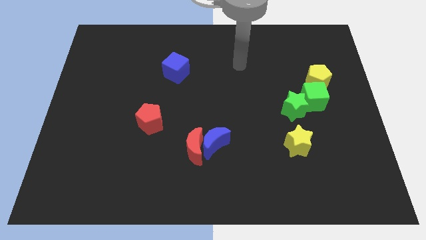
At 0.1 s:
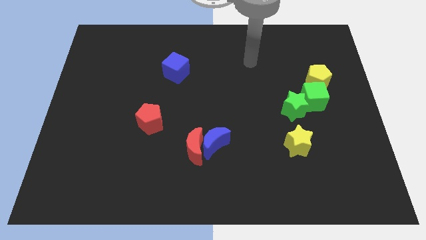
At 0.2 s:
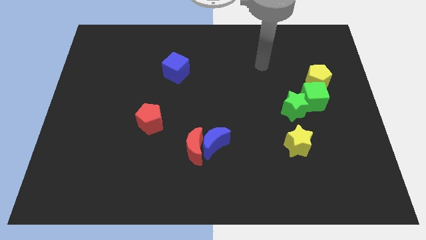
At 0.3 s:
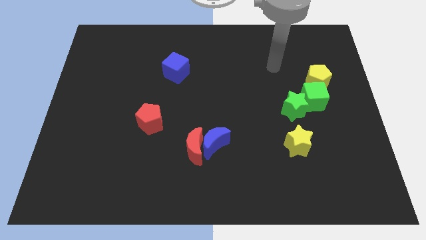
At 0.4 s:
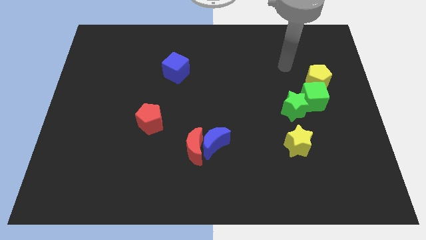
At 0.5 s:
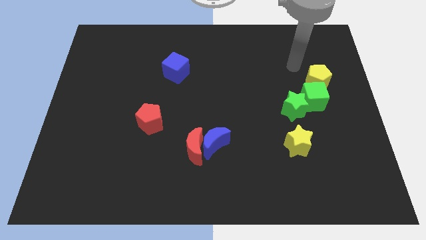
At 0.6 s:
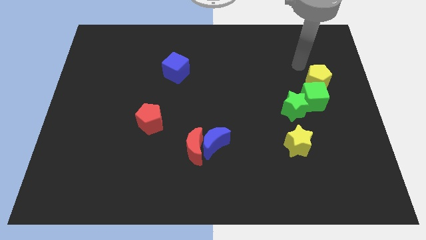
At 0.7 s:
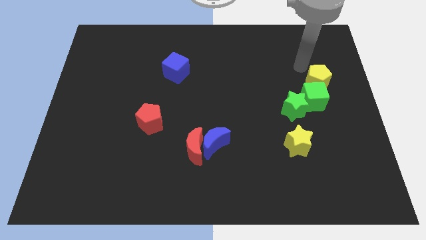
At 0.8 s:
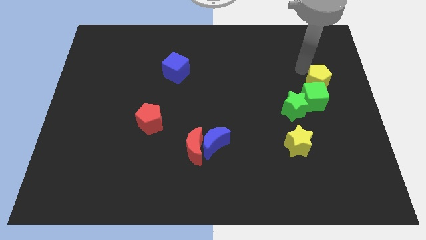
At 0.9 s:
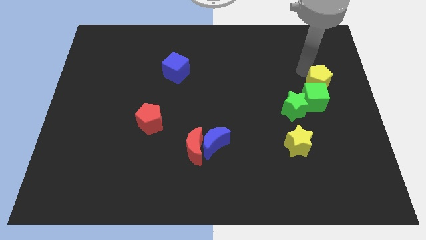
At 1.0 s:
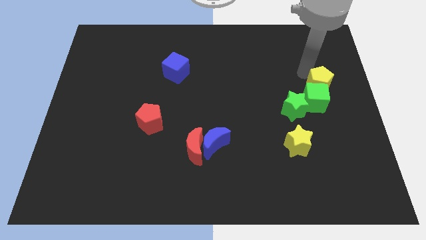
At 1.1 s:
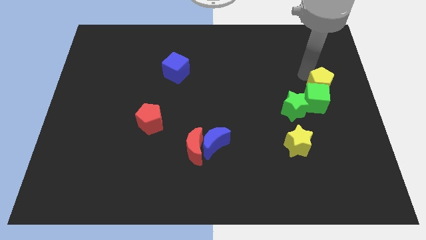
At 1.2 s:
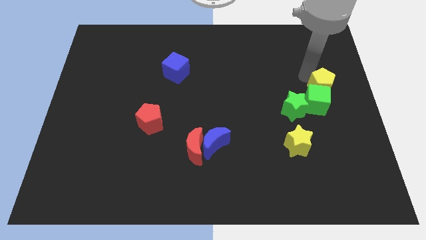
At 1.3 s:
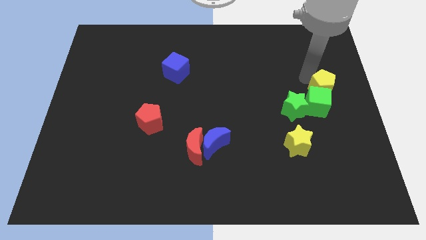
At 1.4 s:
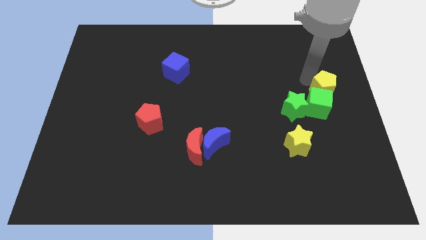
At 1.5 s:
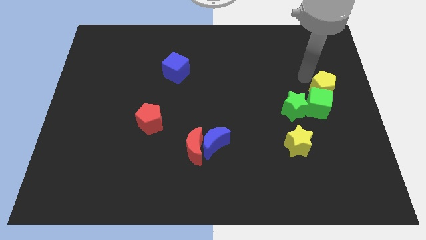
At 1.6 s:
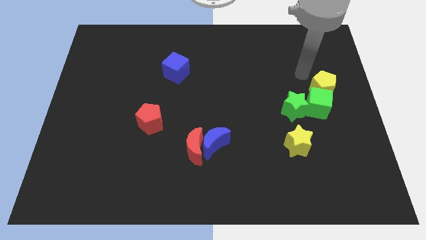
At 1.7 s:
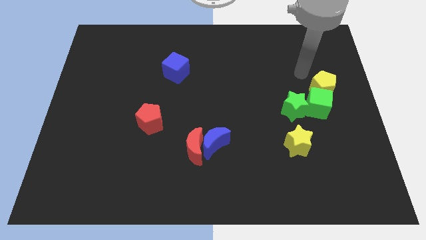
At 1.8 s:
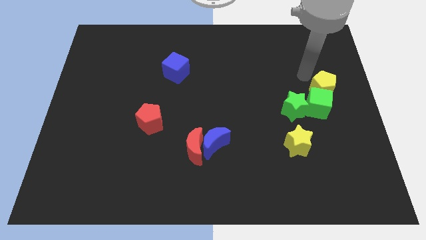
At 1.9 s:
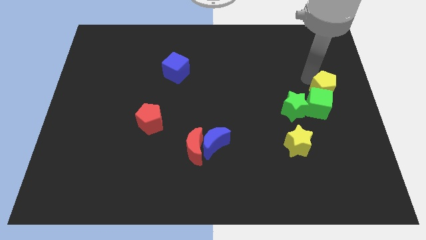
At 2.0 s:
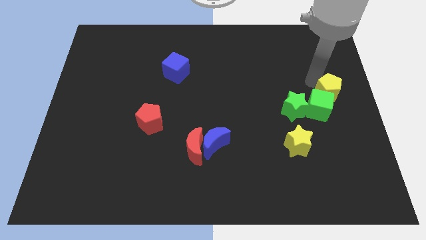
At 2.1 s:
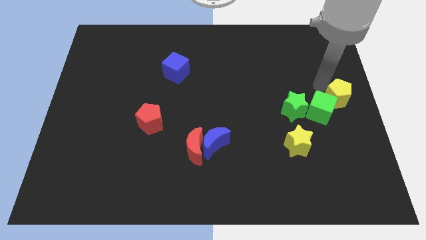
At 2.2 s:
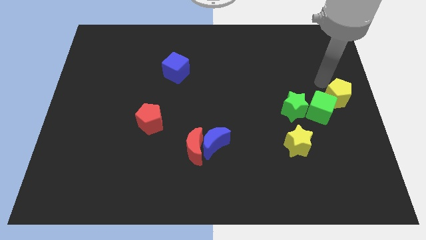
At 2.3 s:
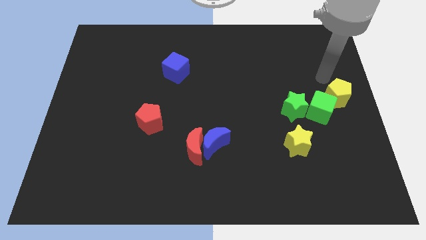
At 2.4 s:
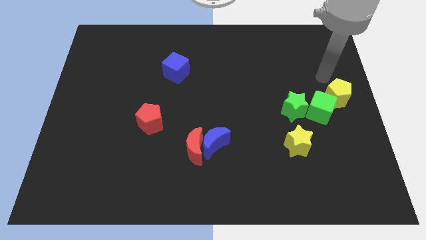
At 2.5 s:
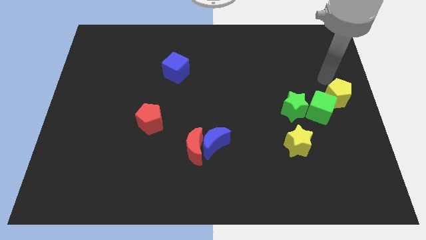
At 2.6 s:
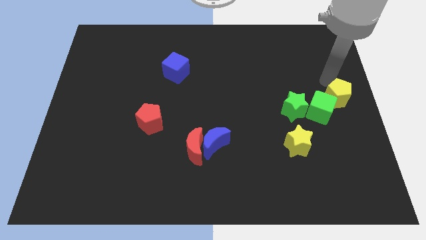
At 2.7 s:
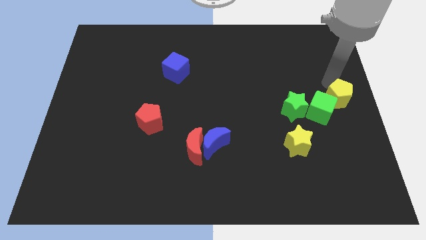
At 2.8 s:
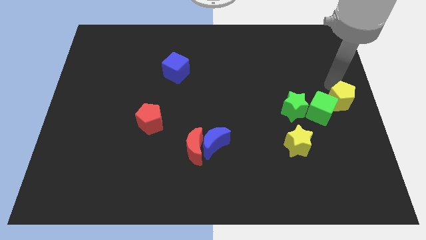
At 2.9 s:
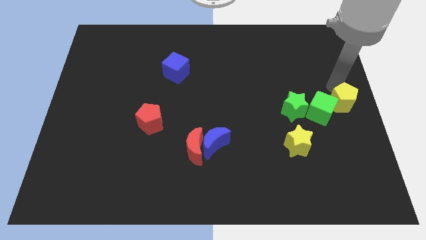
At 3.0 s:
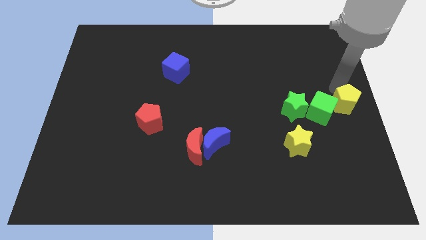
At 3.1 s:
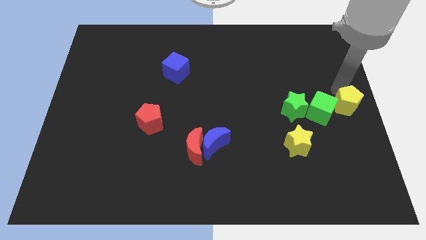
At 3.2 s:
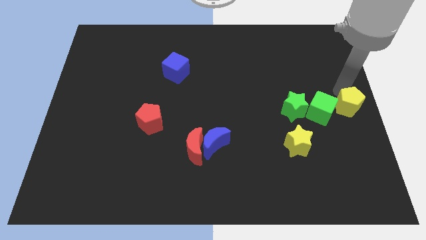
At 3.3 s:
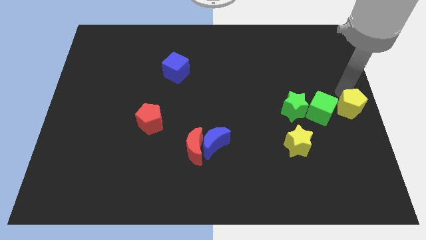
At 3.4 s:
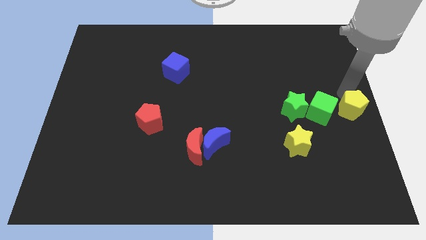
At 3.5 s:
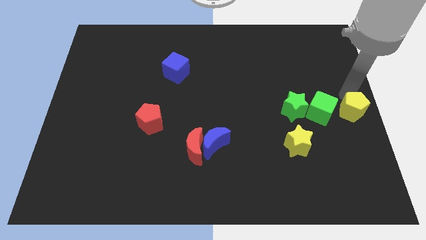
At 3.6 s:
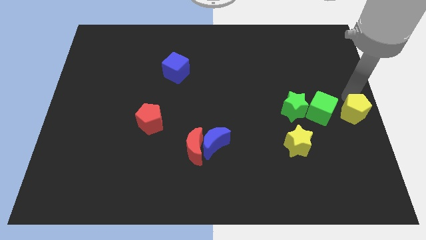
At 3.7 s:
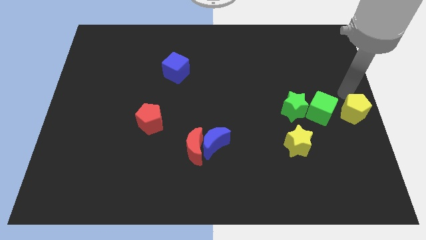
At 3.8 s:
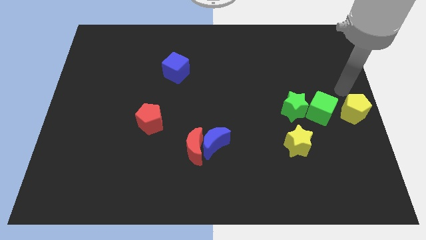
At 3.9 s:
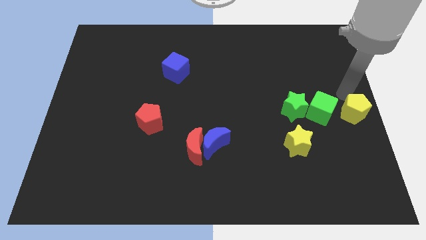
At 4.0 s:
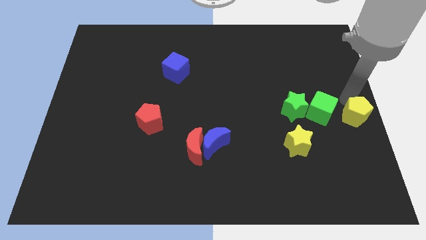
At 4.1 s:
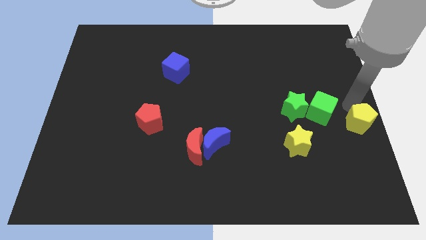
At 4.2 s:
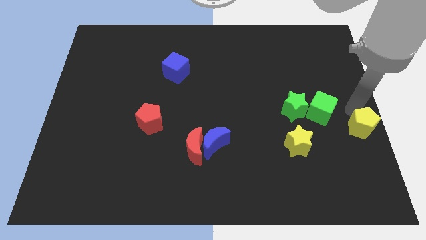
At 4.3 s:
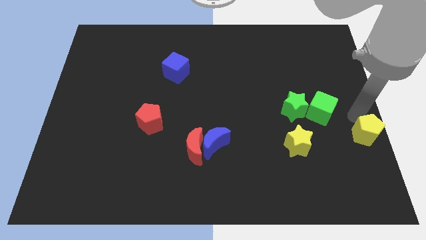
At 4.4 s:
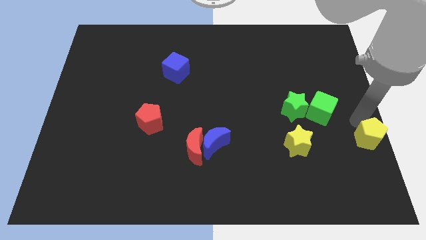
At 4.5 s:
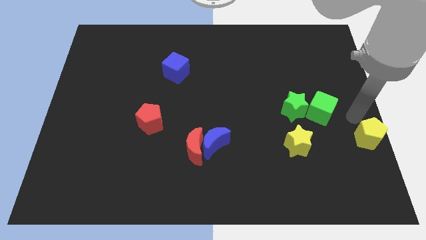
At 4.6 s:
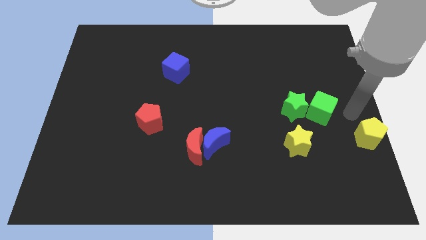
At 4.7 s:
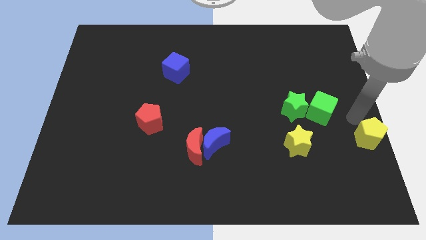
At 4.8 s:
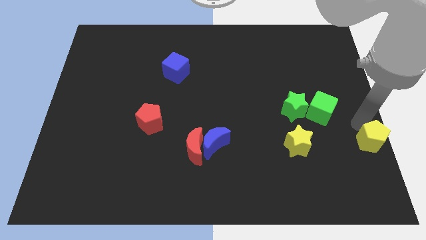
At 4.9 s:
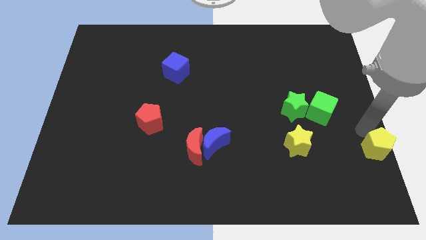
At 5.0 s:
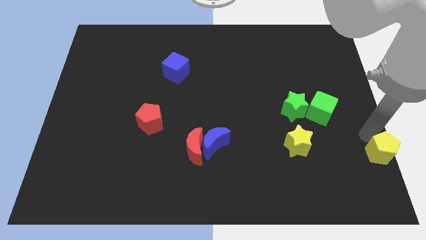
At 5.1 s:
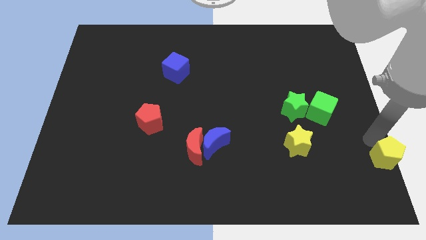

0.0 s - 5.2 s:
move the yellow pentagon to the bottom right corner

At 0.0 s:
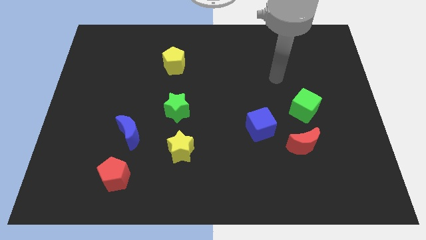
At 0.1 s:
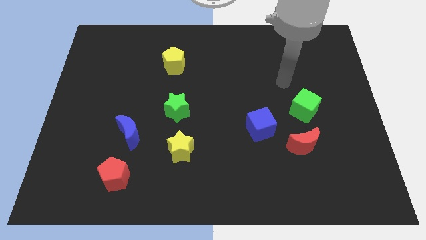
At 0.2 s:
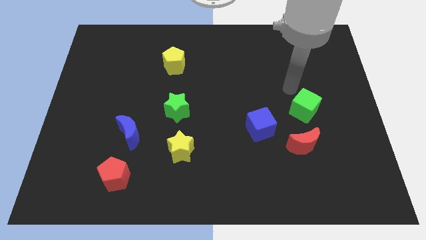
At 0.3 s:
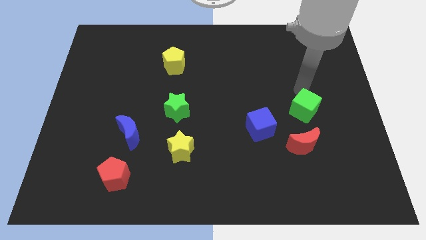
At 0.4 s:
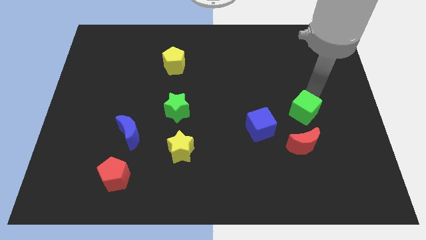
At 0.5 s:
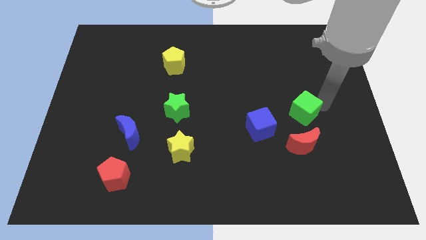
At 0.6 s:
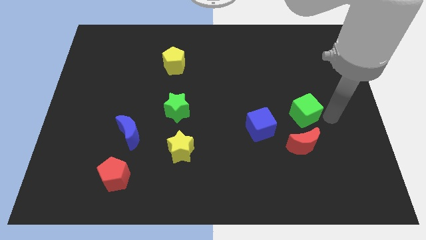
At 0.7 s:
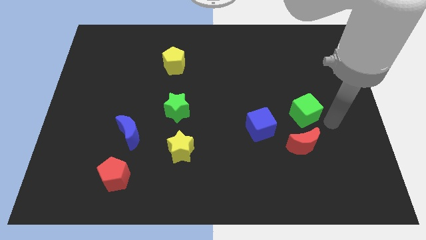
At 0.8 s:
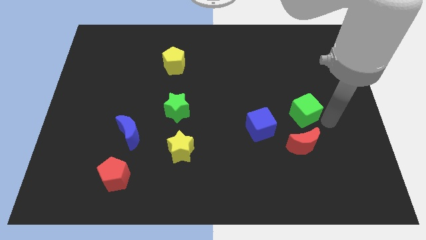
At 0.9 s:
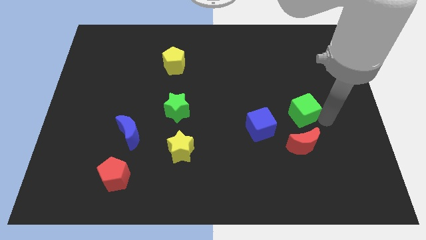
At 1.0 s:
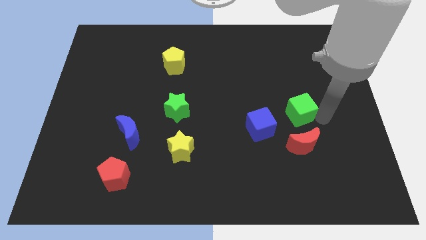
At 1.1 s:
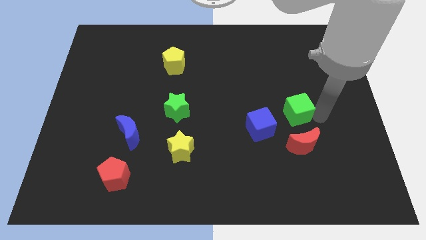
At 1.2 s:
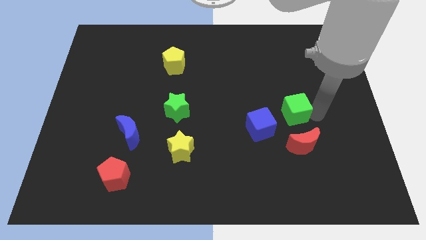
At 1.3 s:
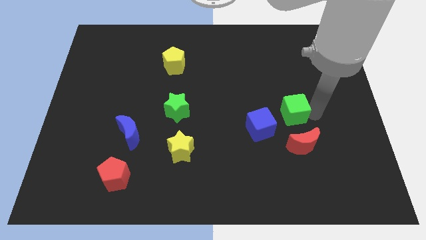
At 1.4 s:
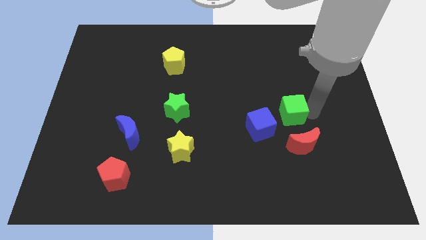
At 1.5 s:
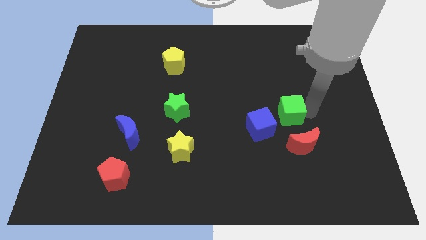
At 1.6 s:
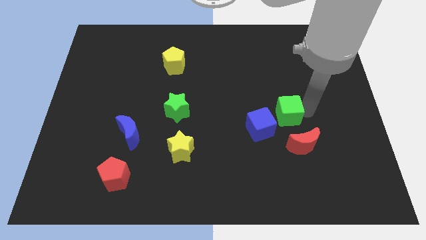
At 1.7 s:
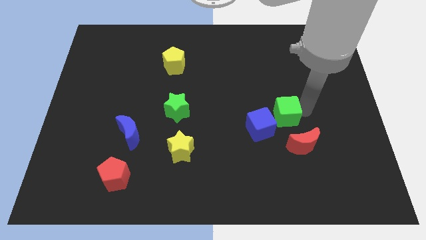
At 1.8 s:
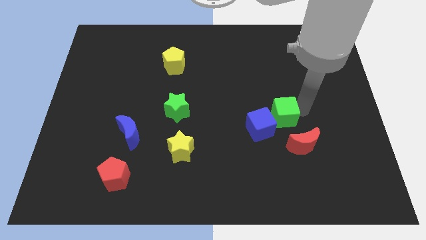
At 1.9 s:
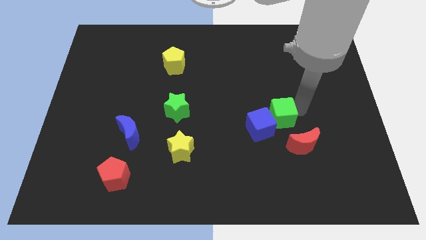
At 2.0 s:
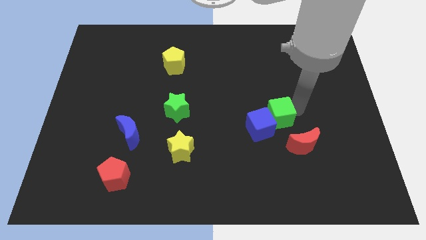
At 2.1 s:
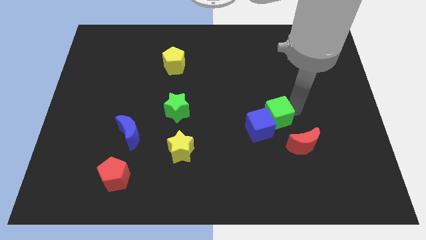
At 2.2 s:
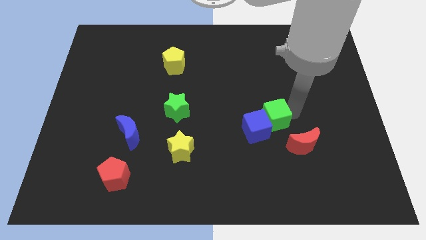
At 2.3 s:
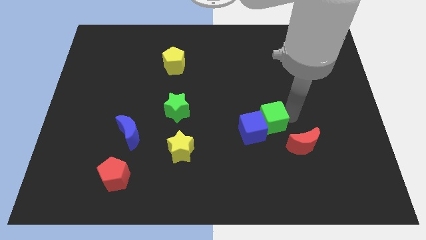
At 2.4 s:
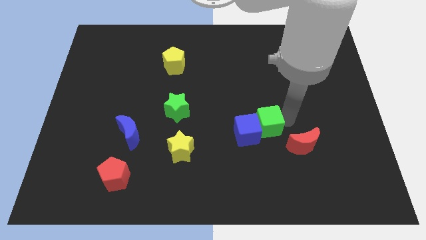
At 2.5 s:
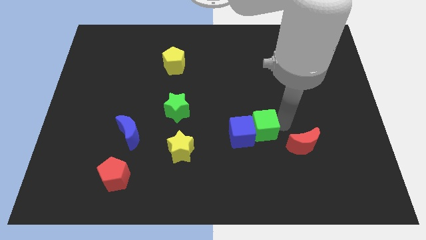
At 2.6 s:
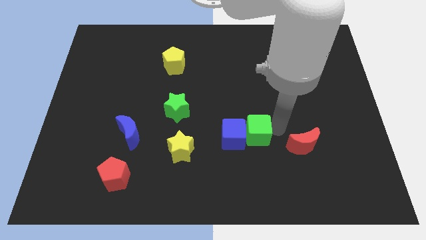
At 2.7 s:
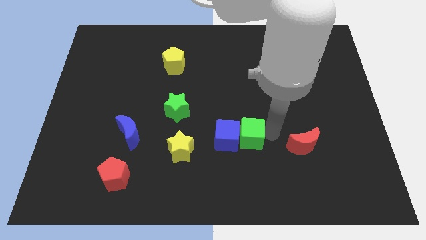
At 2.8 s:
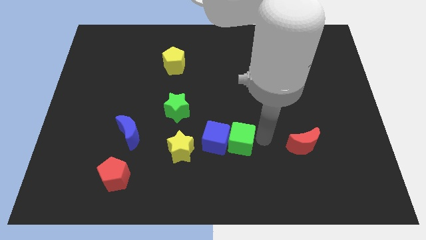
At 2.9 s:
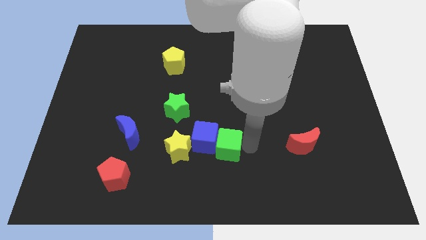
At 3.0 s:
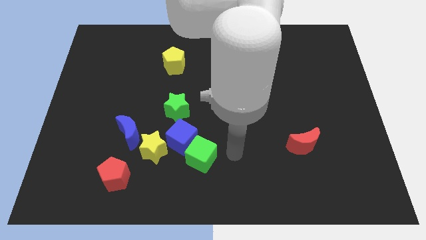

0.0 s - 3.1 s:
put the green cube to the bottom
